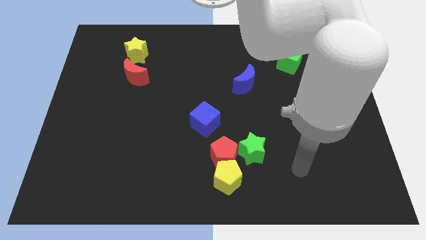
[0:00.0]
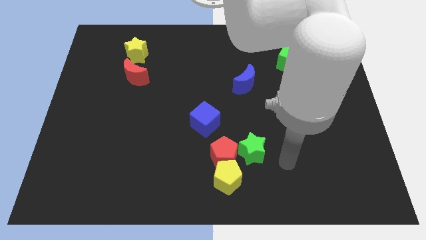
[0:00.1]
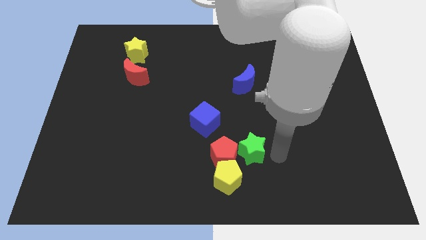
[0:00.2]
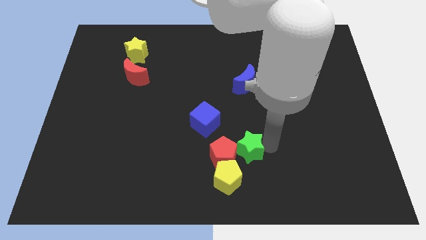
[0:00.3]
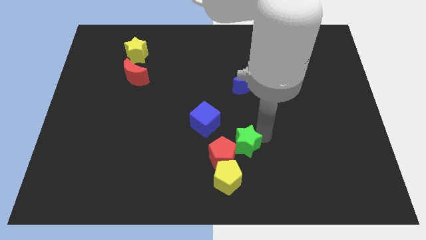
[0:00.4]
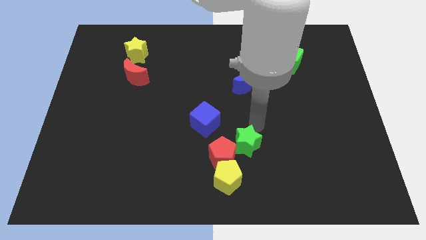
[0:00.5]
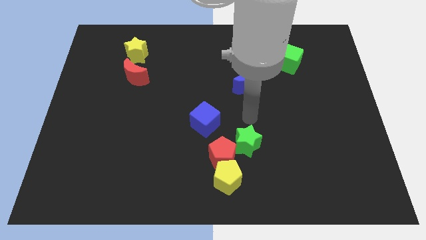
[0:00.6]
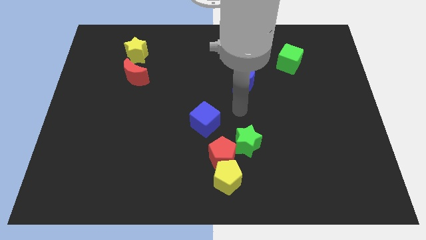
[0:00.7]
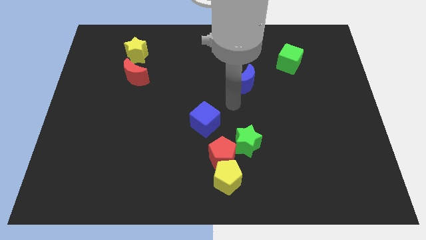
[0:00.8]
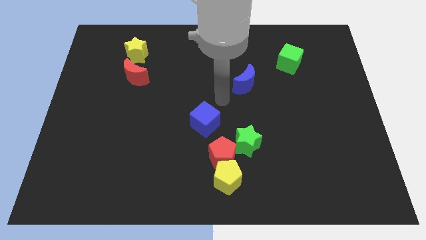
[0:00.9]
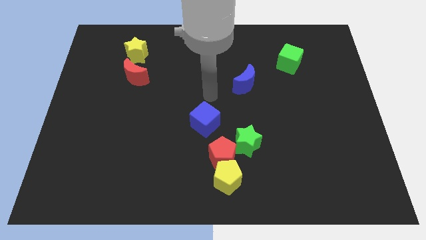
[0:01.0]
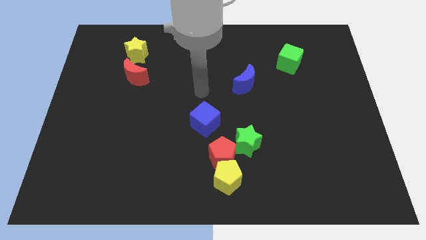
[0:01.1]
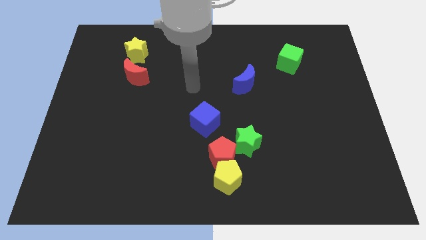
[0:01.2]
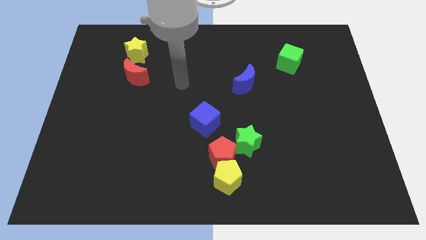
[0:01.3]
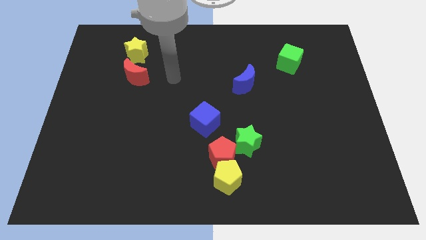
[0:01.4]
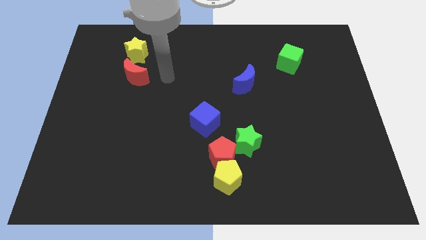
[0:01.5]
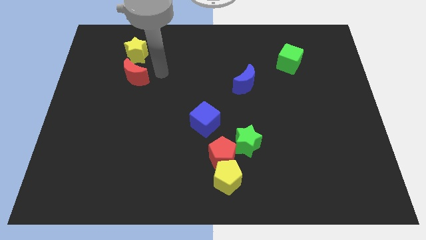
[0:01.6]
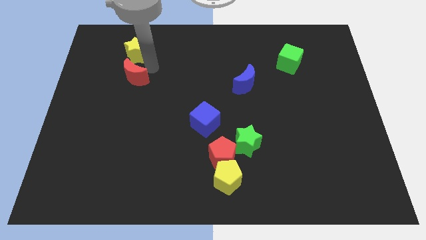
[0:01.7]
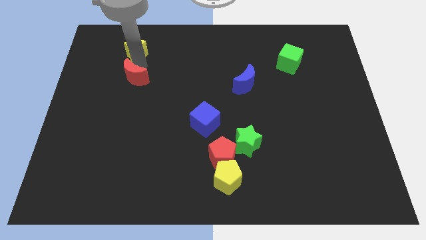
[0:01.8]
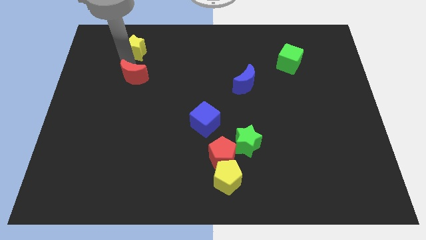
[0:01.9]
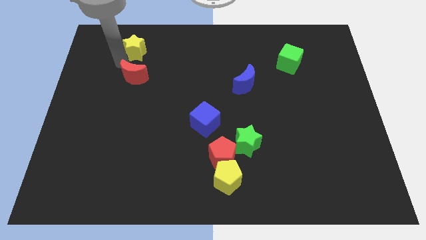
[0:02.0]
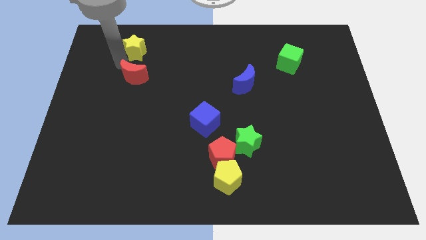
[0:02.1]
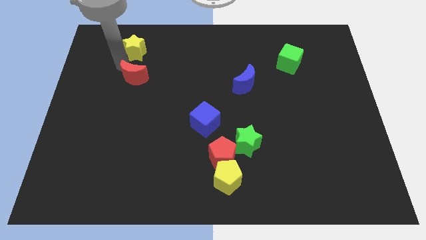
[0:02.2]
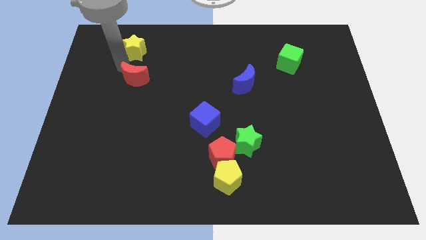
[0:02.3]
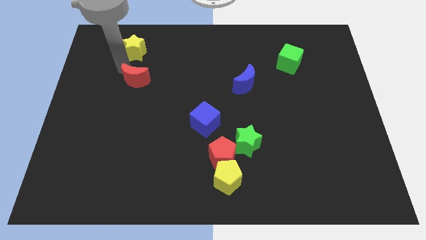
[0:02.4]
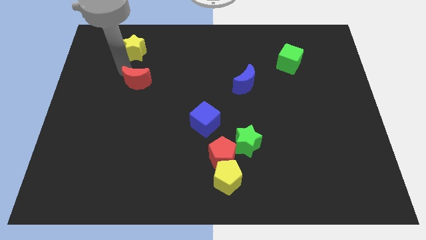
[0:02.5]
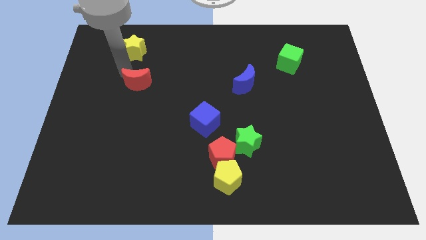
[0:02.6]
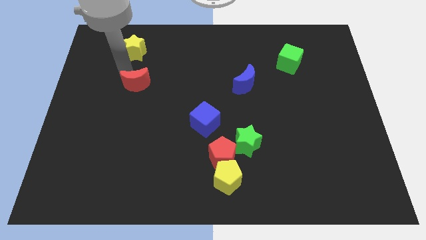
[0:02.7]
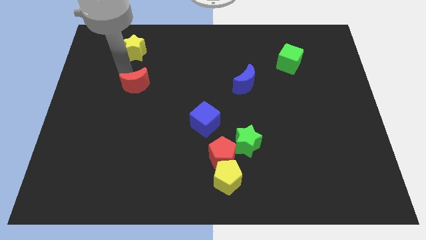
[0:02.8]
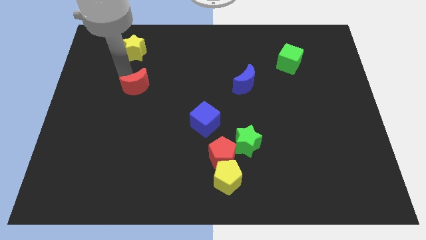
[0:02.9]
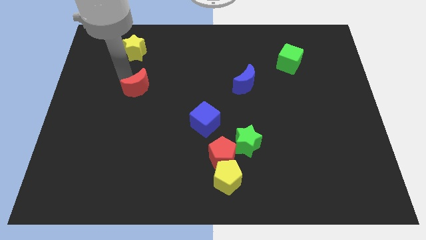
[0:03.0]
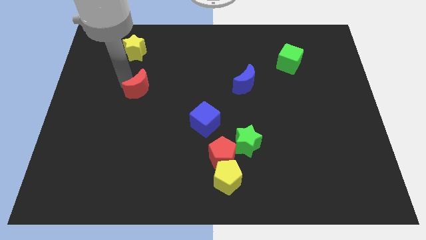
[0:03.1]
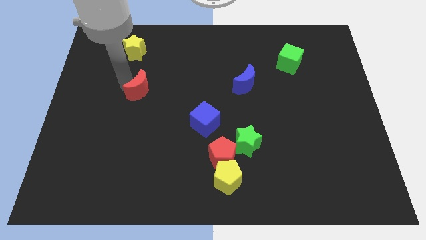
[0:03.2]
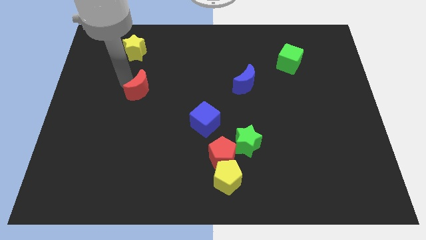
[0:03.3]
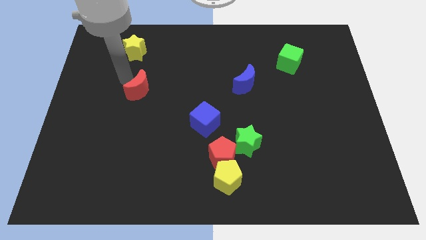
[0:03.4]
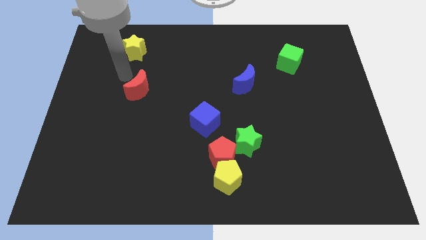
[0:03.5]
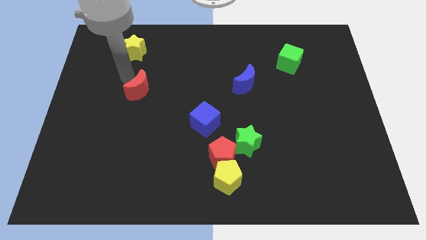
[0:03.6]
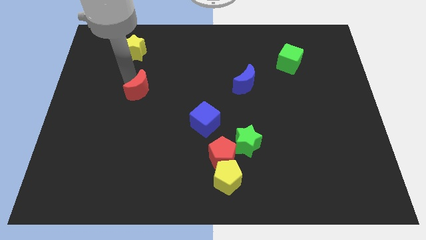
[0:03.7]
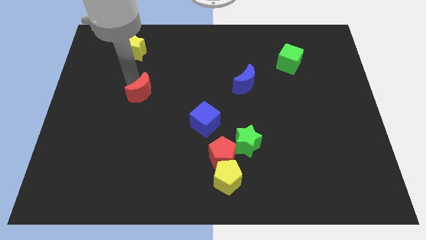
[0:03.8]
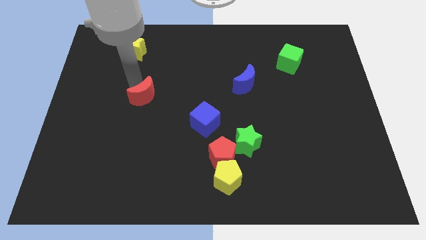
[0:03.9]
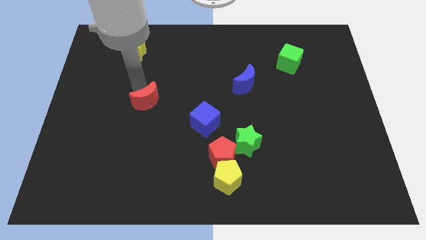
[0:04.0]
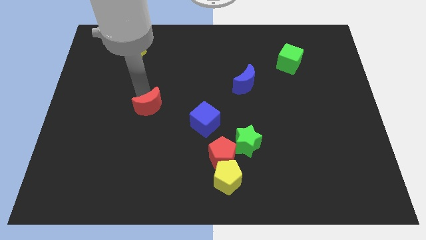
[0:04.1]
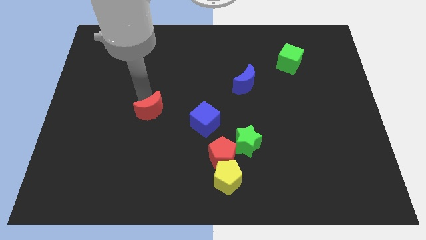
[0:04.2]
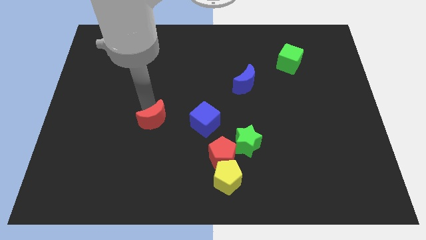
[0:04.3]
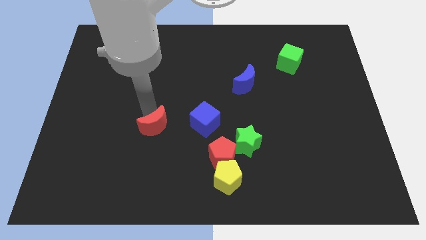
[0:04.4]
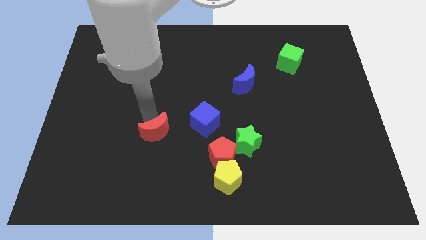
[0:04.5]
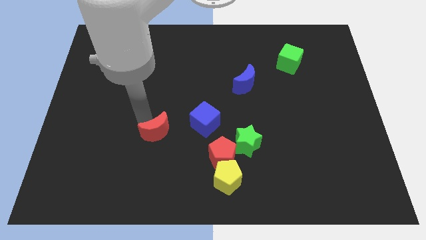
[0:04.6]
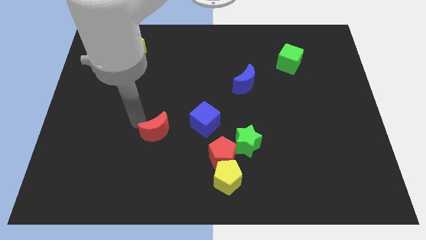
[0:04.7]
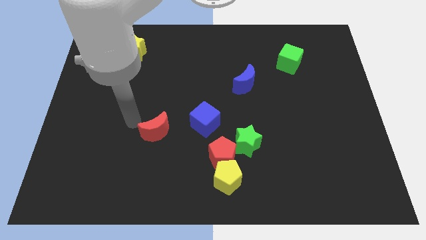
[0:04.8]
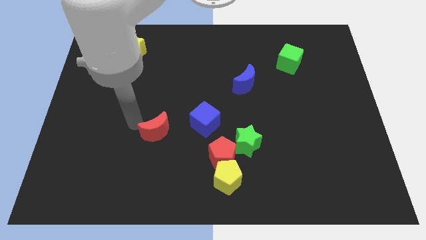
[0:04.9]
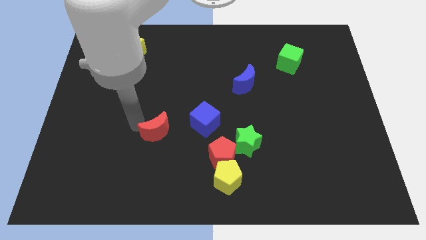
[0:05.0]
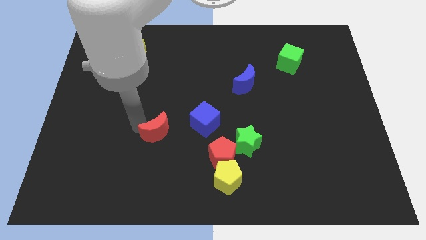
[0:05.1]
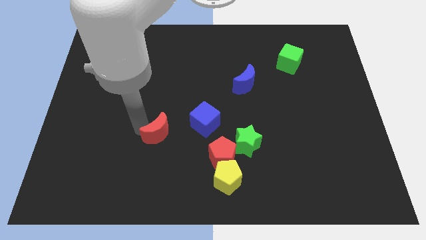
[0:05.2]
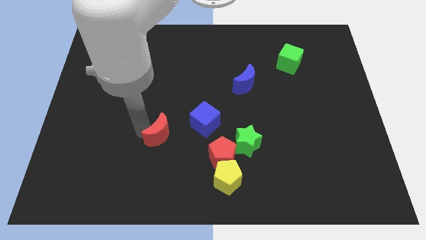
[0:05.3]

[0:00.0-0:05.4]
slide the red moon diagonally down and to the left of the blue cube

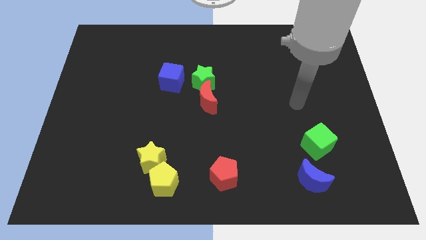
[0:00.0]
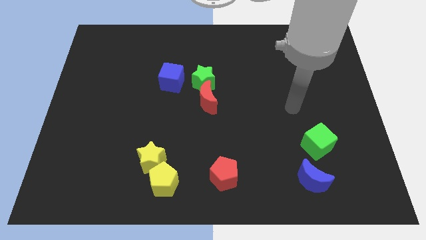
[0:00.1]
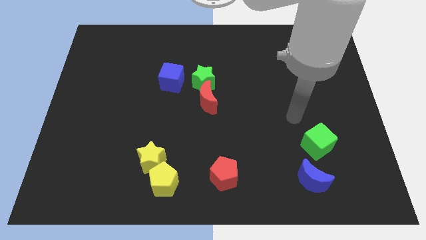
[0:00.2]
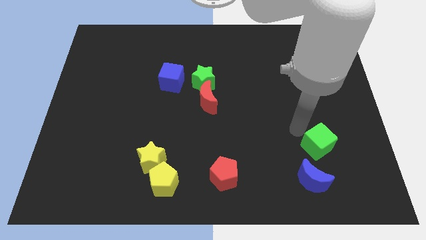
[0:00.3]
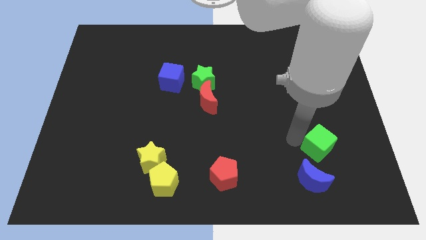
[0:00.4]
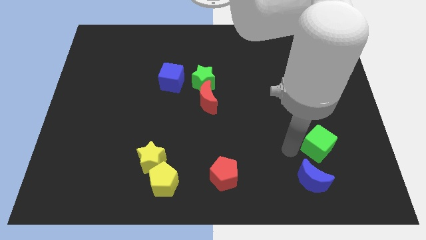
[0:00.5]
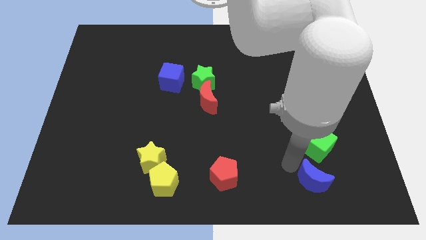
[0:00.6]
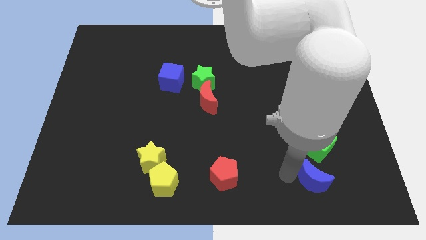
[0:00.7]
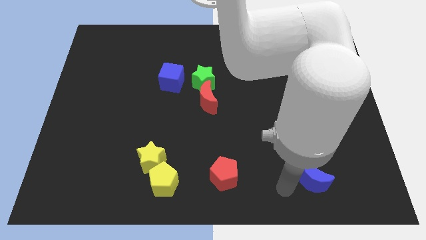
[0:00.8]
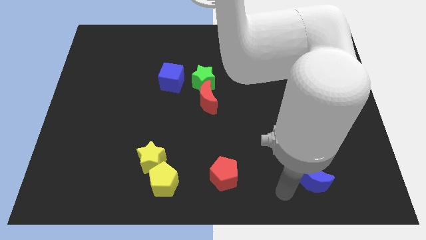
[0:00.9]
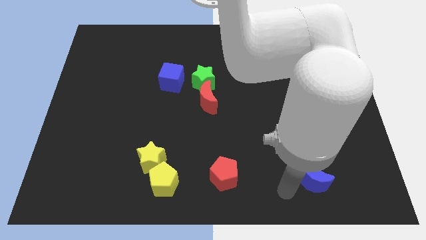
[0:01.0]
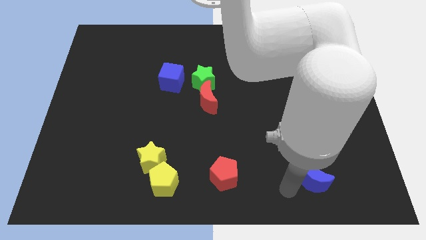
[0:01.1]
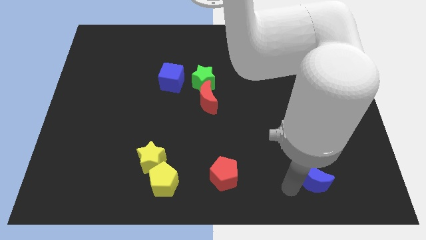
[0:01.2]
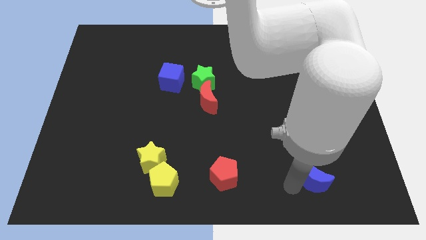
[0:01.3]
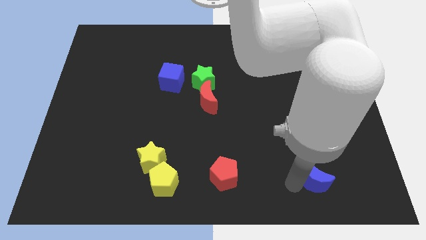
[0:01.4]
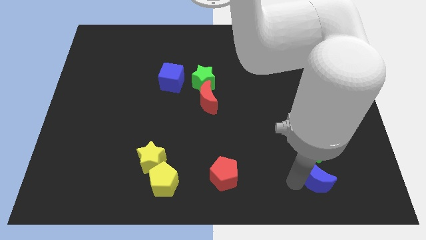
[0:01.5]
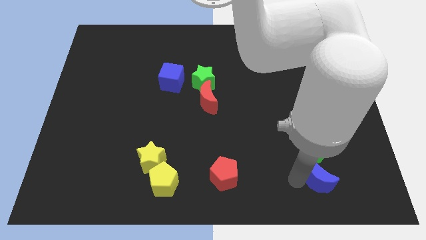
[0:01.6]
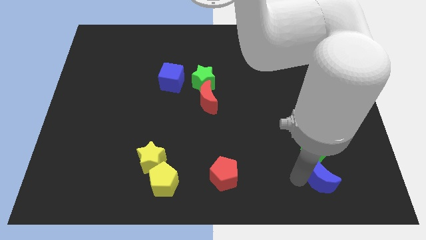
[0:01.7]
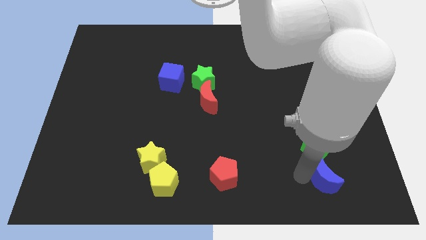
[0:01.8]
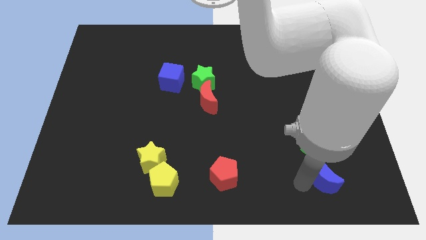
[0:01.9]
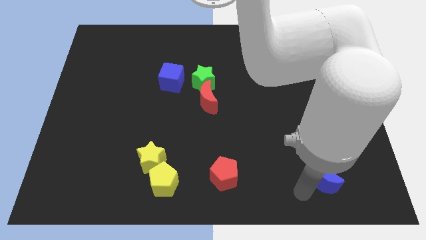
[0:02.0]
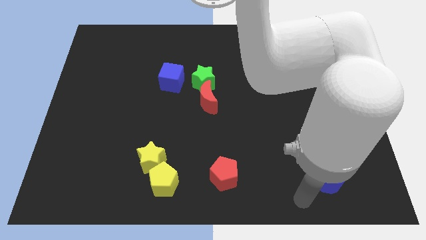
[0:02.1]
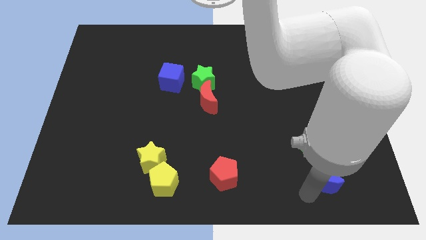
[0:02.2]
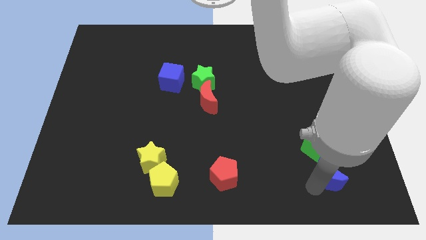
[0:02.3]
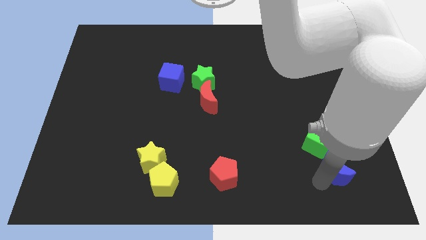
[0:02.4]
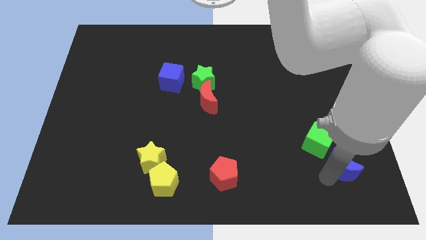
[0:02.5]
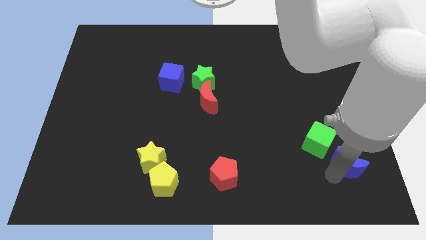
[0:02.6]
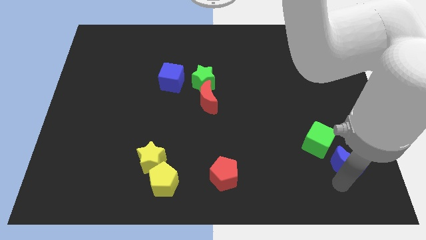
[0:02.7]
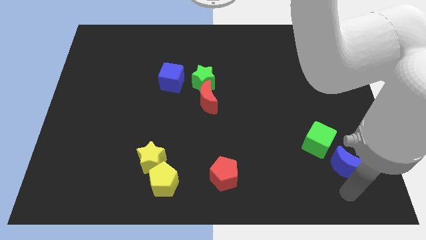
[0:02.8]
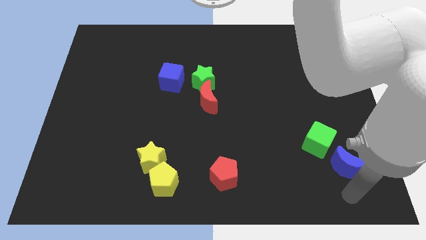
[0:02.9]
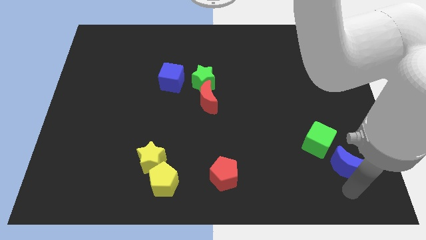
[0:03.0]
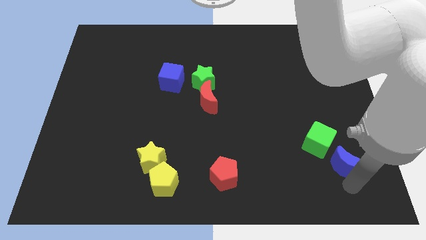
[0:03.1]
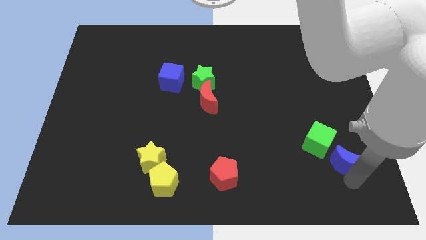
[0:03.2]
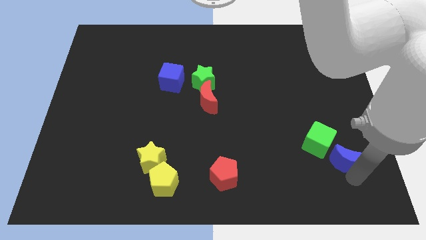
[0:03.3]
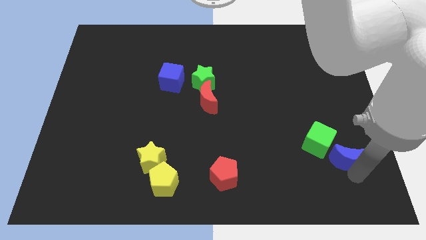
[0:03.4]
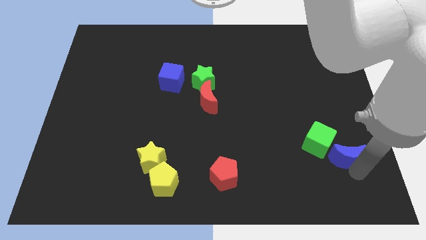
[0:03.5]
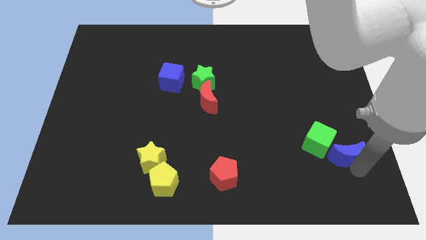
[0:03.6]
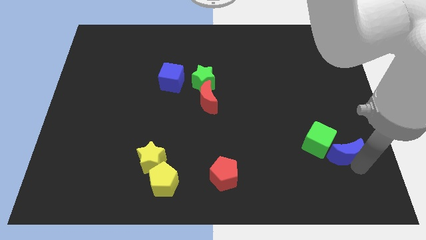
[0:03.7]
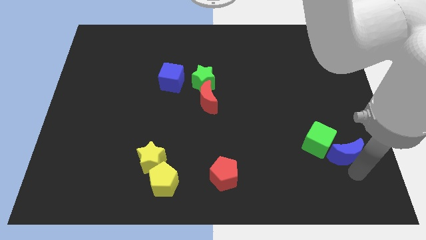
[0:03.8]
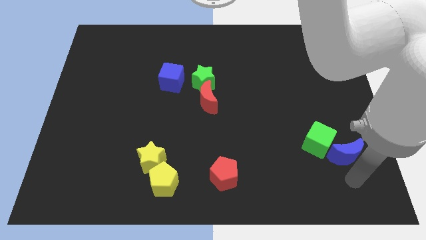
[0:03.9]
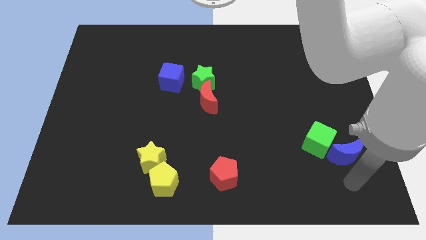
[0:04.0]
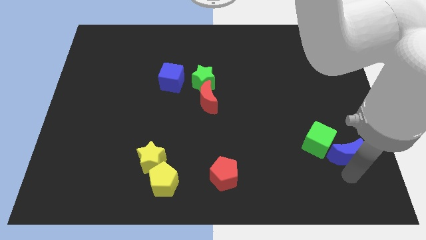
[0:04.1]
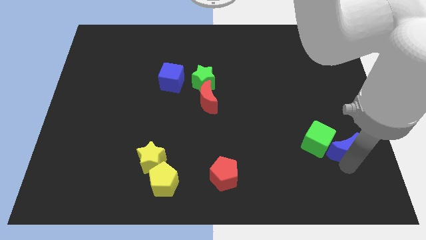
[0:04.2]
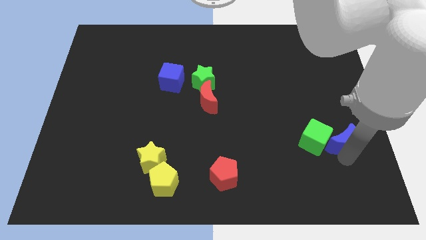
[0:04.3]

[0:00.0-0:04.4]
slide the blue moon to the top right of the green cube
